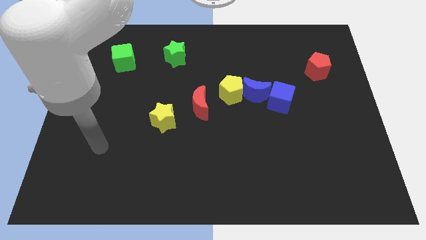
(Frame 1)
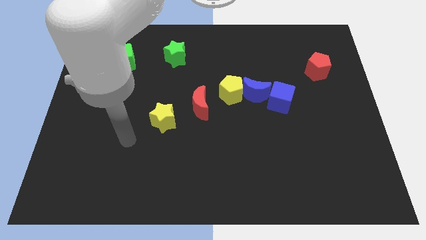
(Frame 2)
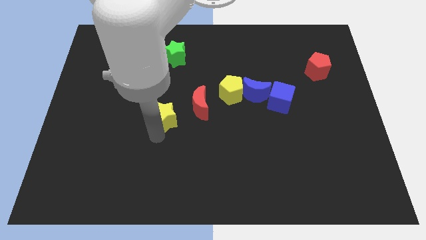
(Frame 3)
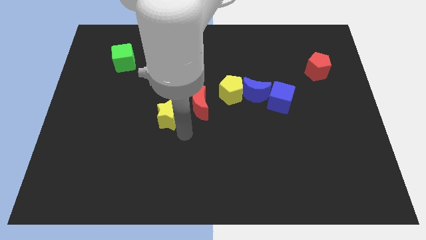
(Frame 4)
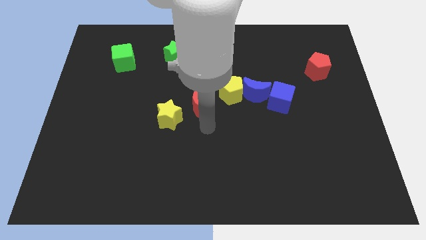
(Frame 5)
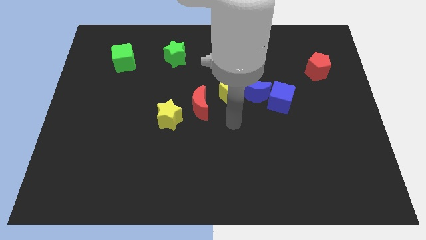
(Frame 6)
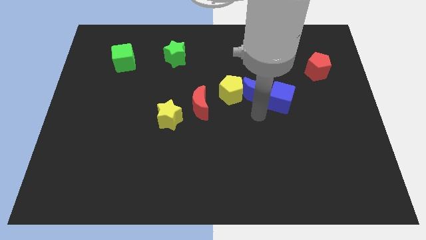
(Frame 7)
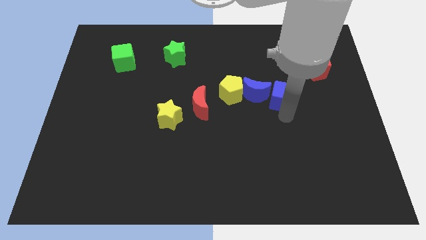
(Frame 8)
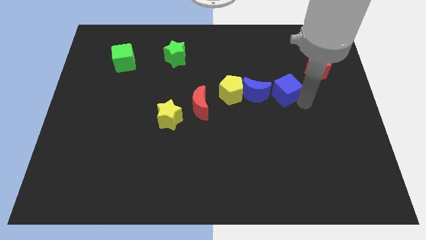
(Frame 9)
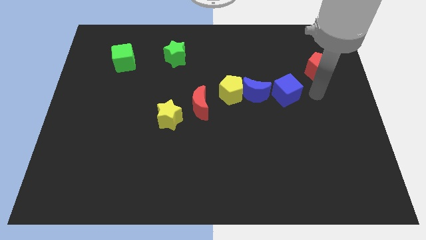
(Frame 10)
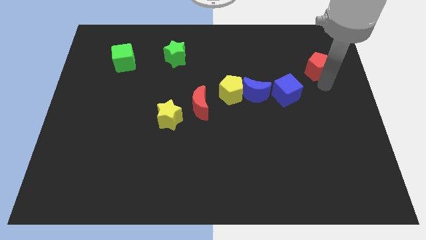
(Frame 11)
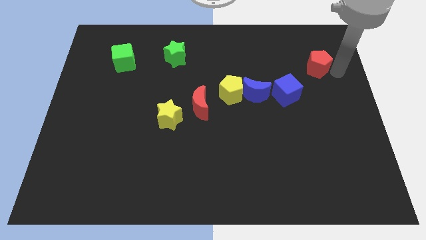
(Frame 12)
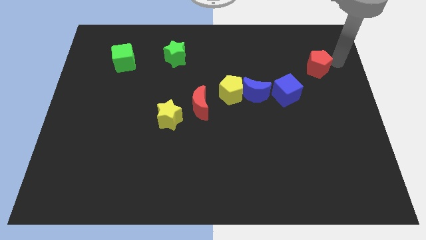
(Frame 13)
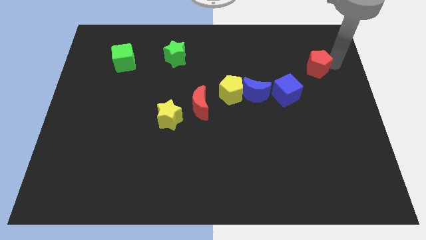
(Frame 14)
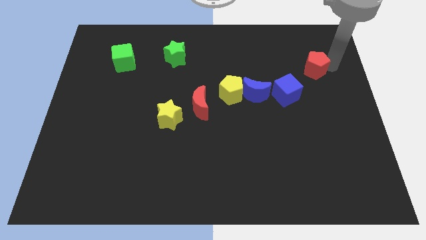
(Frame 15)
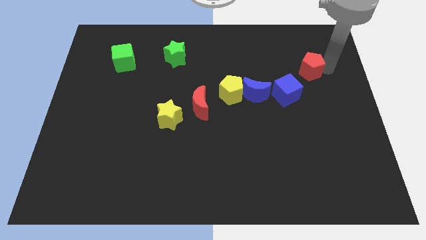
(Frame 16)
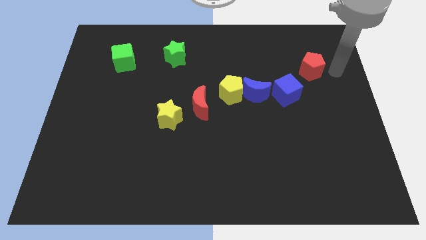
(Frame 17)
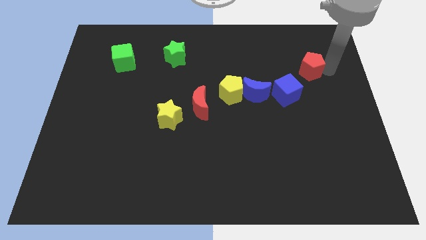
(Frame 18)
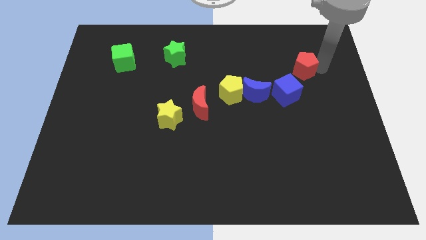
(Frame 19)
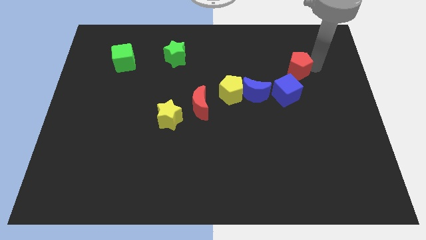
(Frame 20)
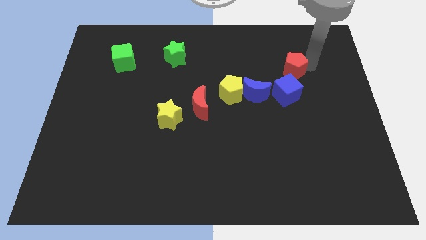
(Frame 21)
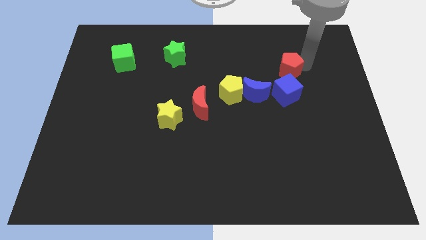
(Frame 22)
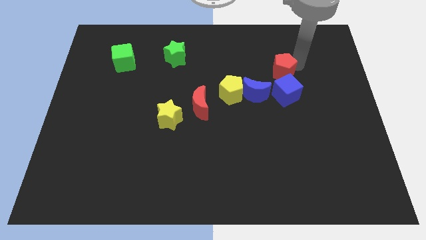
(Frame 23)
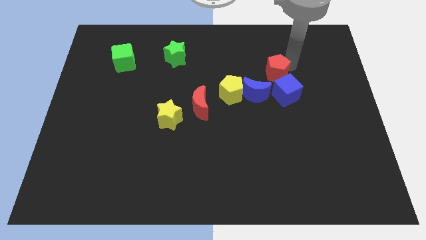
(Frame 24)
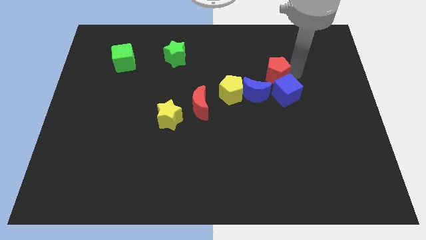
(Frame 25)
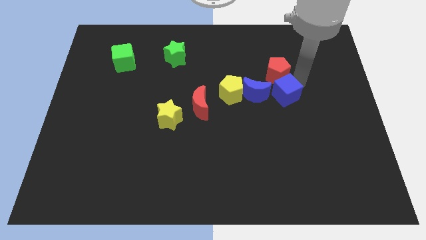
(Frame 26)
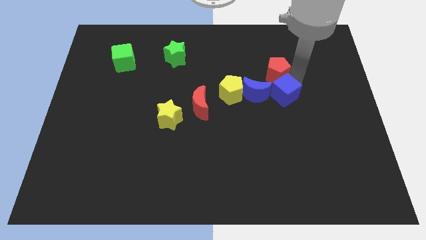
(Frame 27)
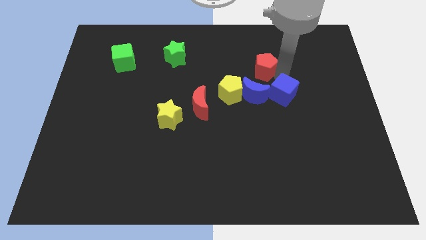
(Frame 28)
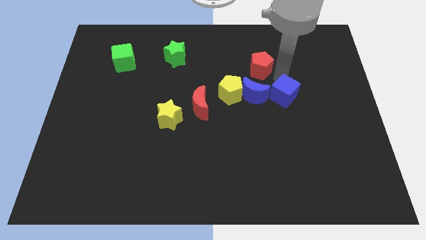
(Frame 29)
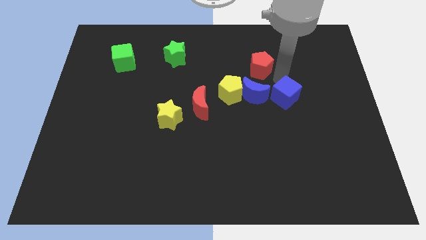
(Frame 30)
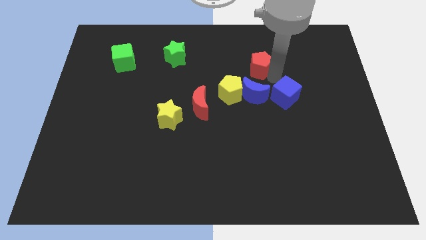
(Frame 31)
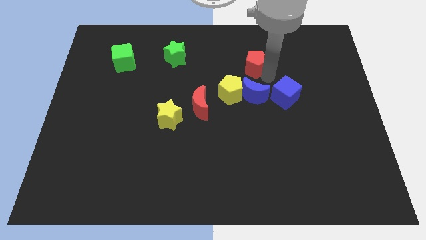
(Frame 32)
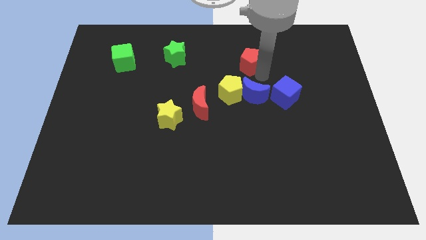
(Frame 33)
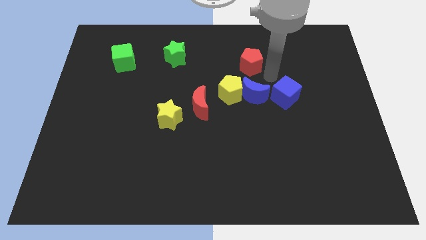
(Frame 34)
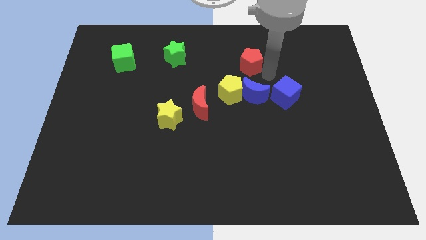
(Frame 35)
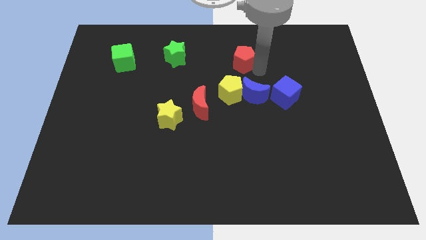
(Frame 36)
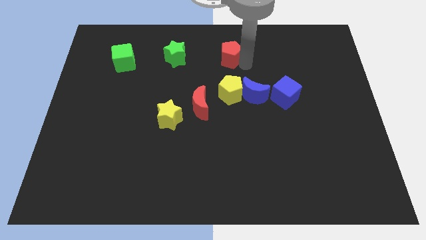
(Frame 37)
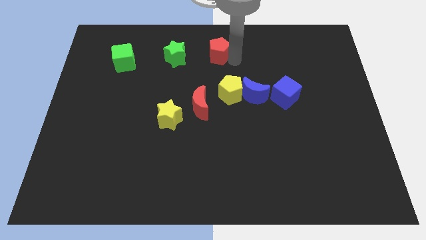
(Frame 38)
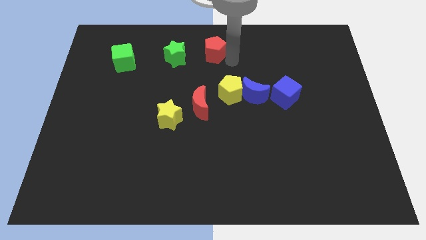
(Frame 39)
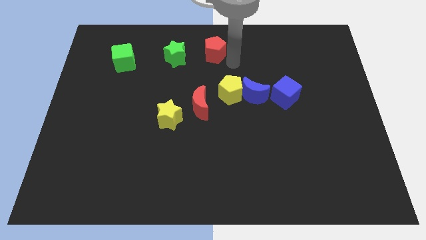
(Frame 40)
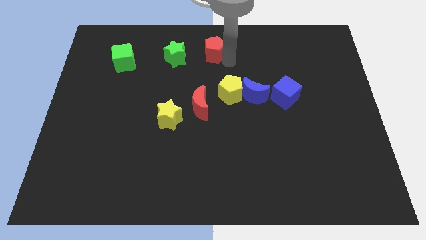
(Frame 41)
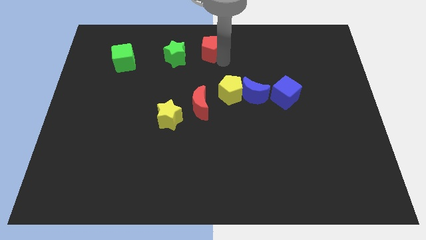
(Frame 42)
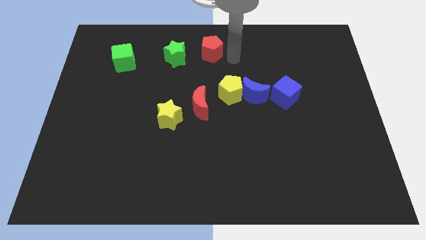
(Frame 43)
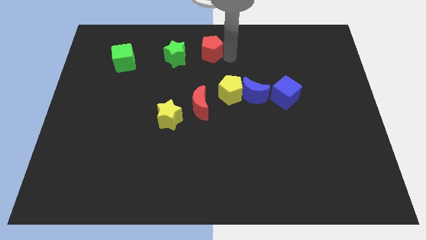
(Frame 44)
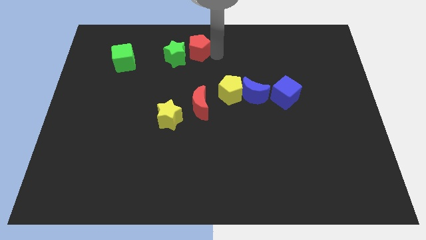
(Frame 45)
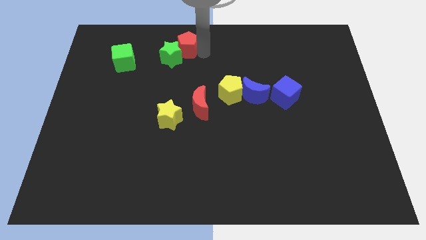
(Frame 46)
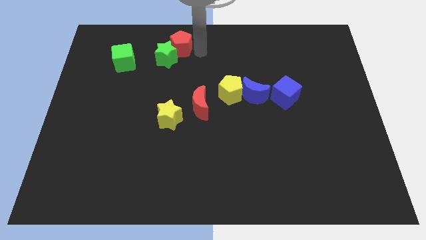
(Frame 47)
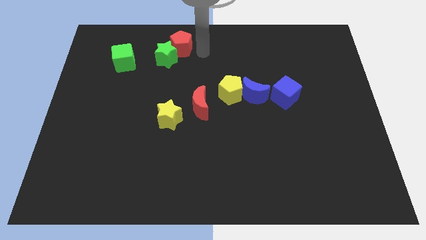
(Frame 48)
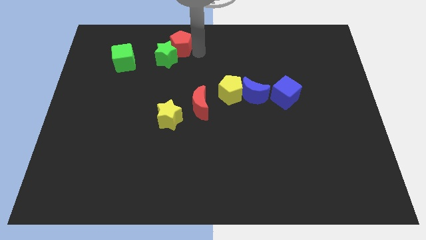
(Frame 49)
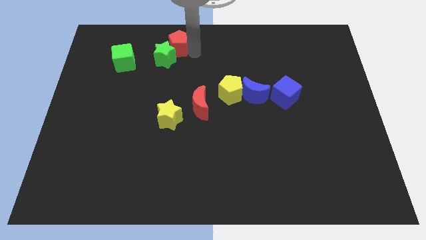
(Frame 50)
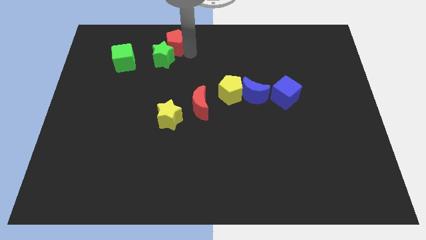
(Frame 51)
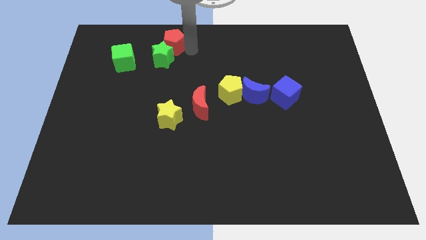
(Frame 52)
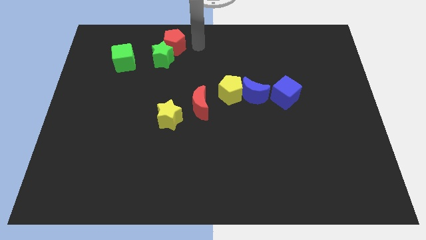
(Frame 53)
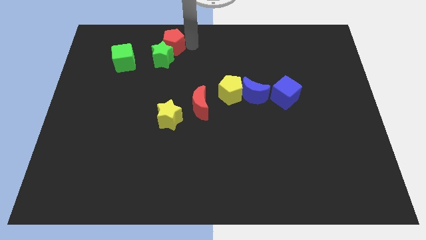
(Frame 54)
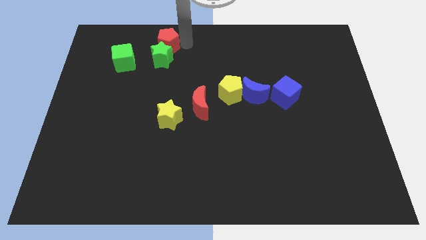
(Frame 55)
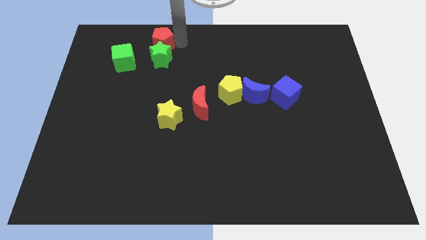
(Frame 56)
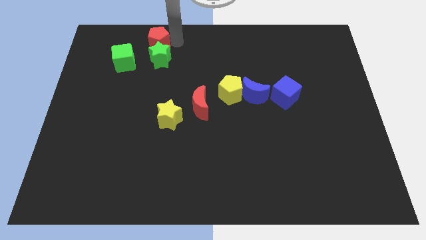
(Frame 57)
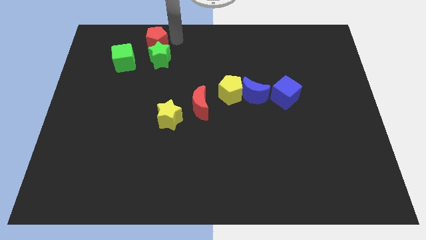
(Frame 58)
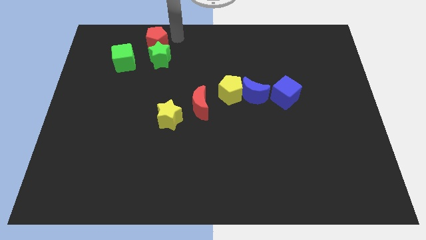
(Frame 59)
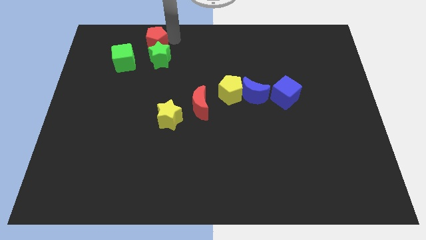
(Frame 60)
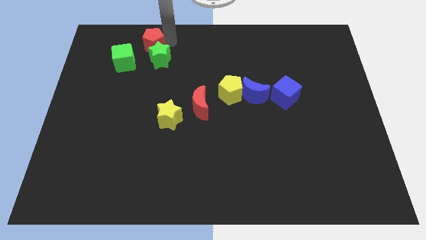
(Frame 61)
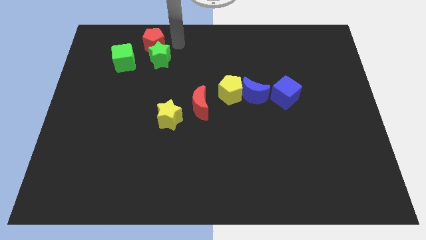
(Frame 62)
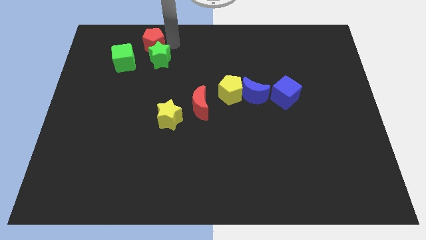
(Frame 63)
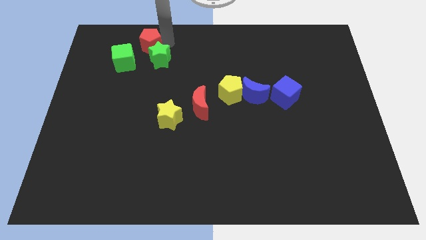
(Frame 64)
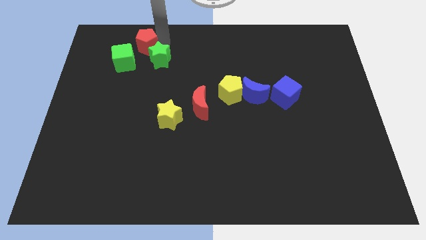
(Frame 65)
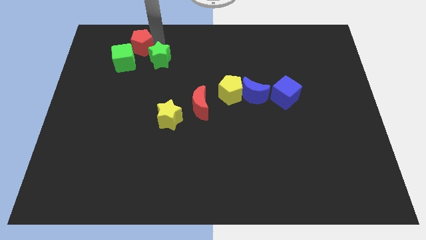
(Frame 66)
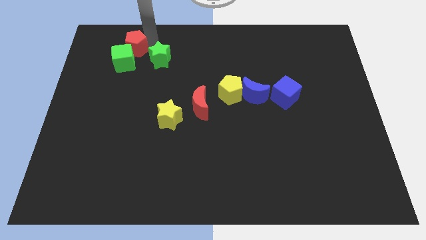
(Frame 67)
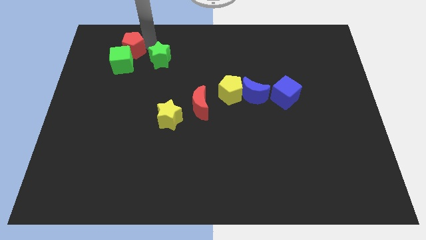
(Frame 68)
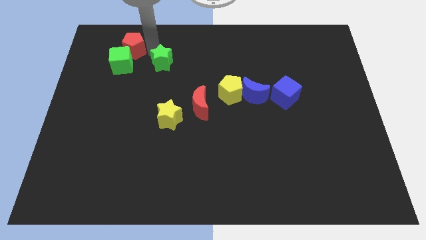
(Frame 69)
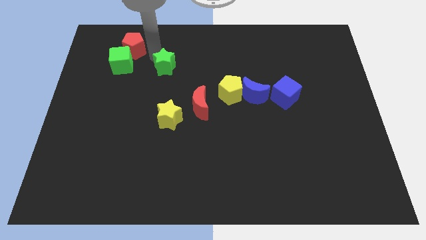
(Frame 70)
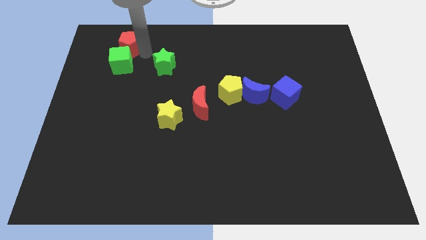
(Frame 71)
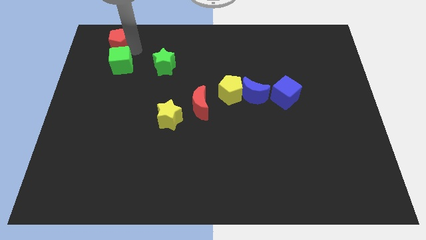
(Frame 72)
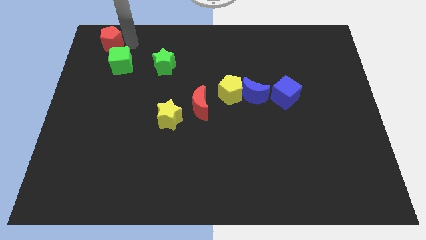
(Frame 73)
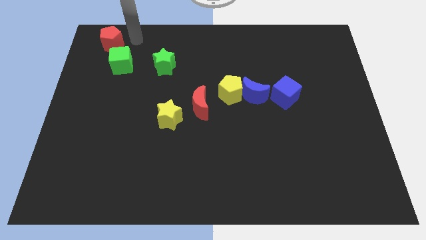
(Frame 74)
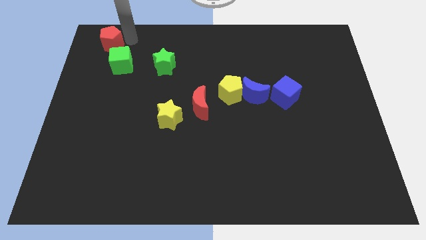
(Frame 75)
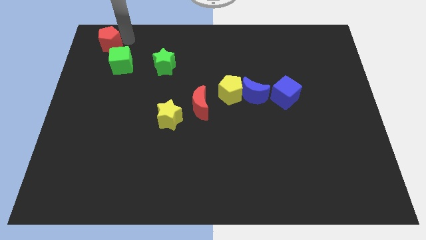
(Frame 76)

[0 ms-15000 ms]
put the red pentagon to the top left corner
